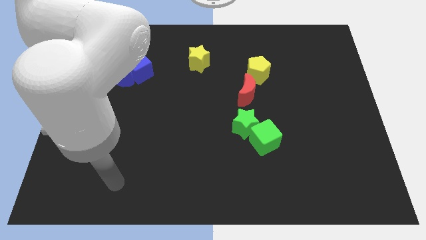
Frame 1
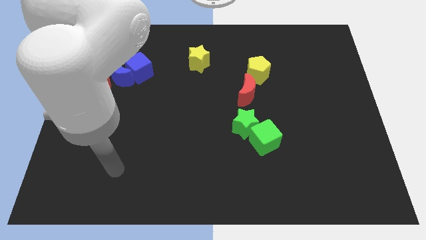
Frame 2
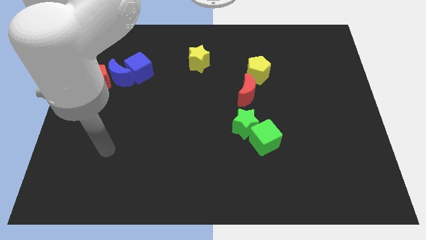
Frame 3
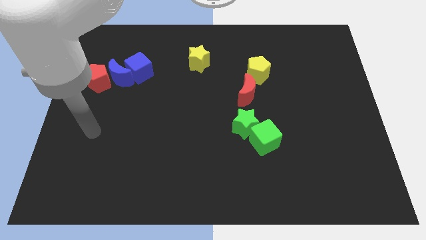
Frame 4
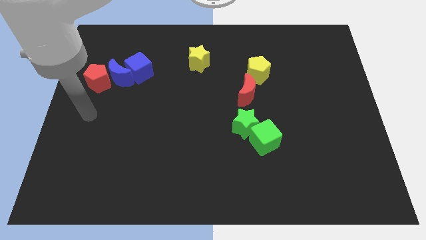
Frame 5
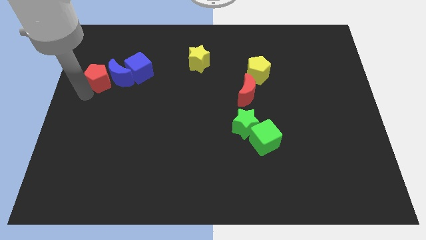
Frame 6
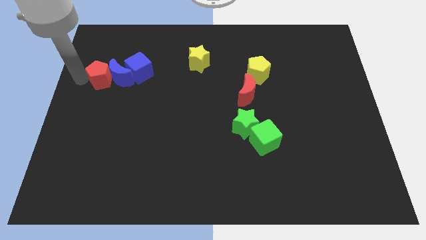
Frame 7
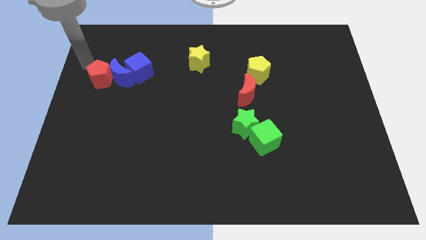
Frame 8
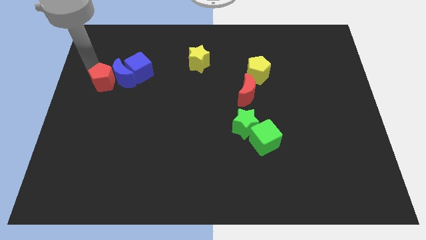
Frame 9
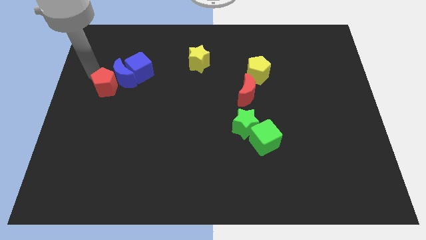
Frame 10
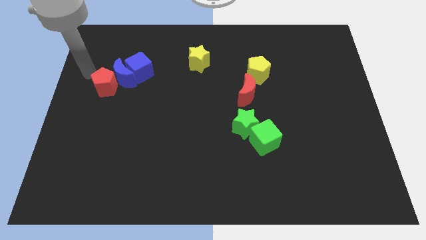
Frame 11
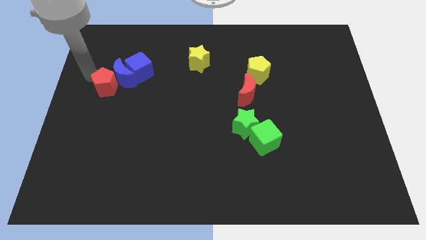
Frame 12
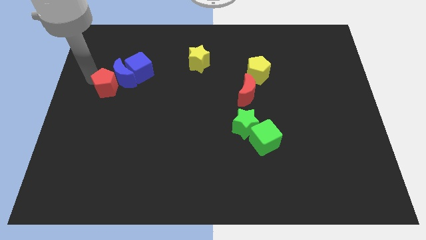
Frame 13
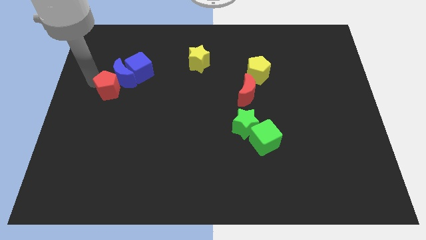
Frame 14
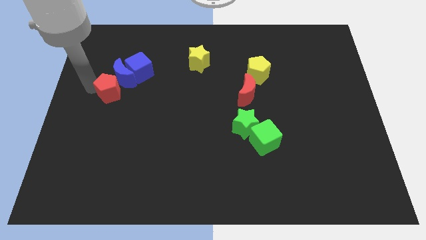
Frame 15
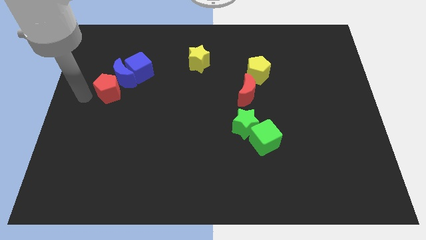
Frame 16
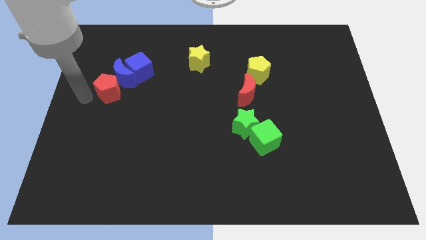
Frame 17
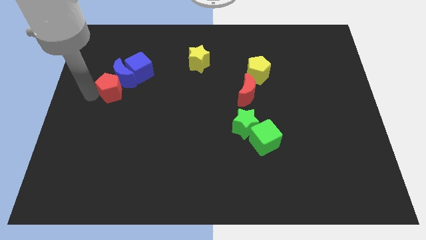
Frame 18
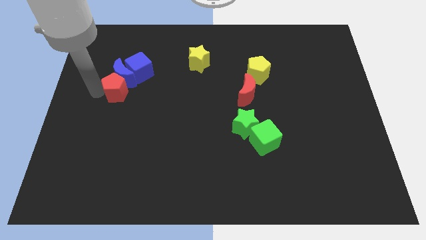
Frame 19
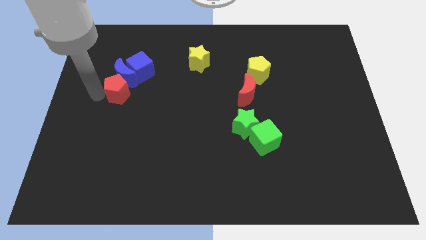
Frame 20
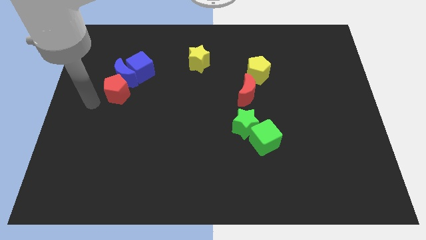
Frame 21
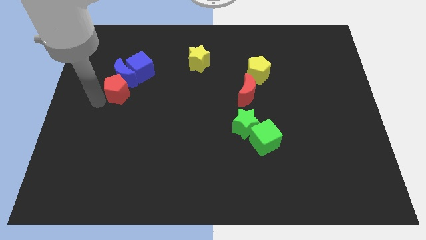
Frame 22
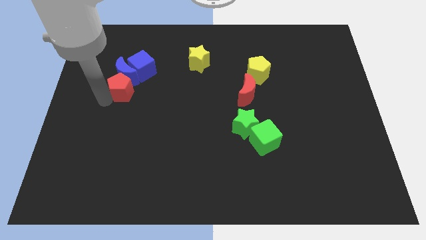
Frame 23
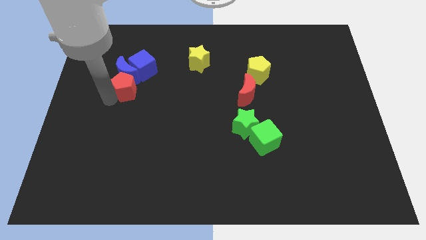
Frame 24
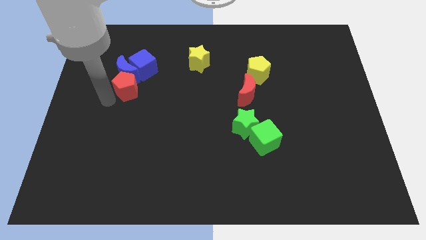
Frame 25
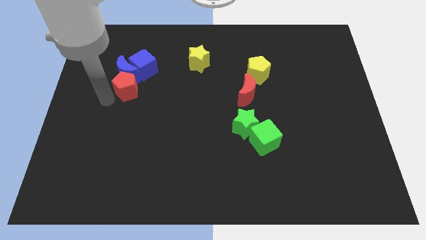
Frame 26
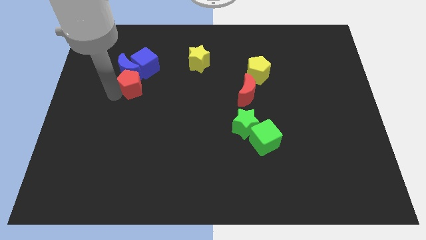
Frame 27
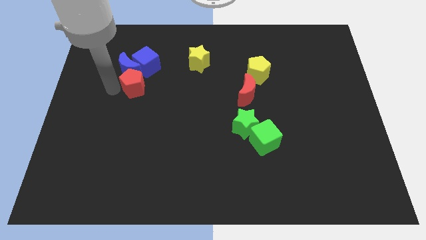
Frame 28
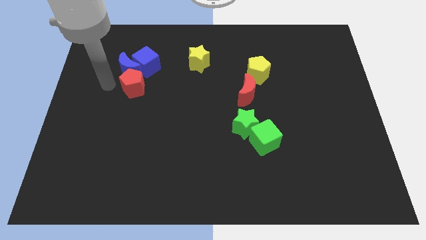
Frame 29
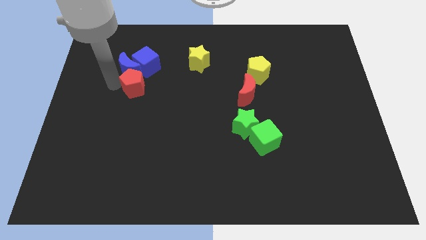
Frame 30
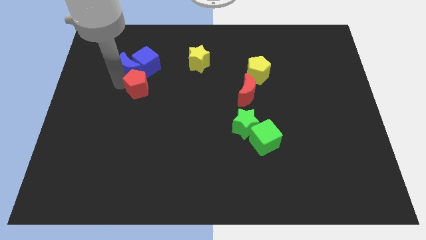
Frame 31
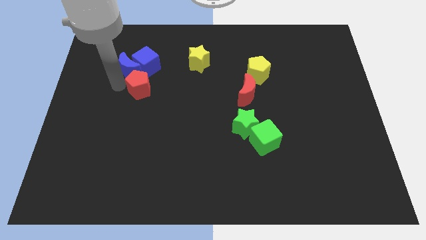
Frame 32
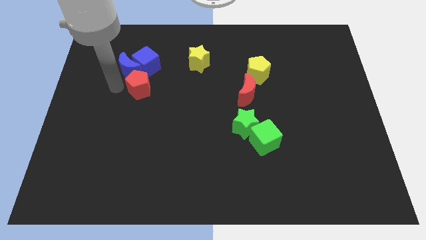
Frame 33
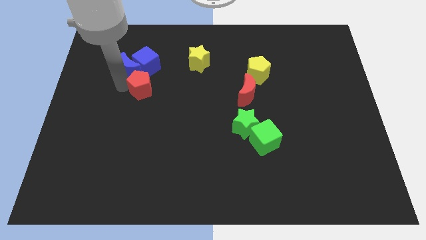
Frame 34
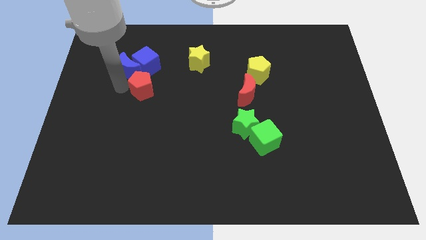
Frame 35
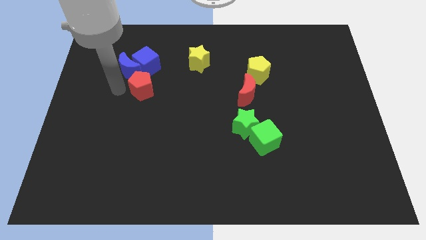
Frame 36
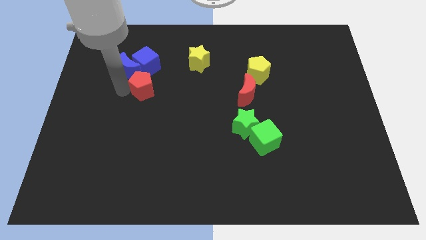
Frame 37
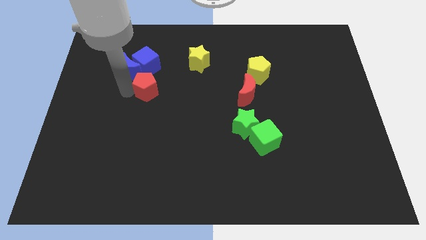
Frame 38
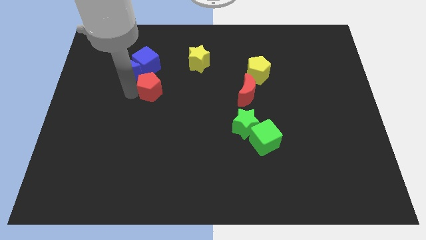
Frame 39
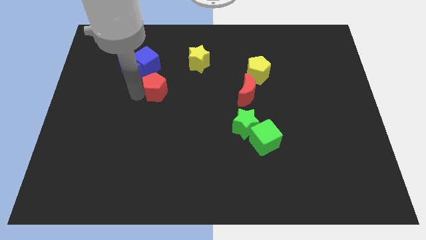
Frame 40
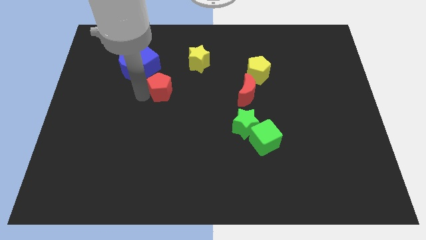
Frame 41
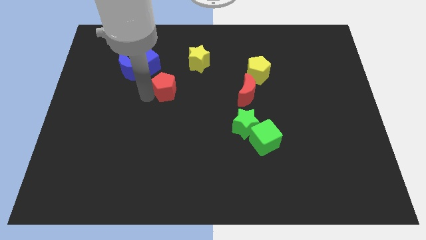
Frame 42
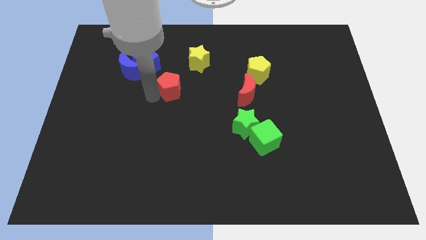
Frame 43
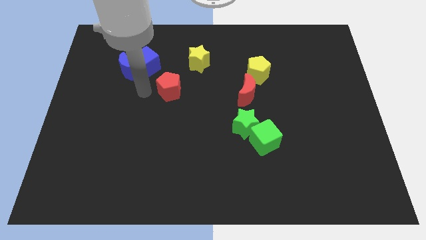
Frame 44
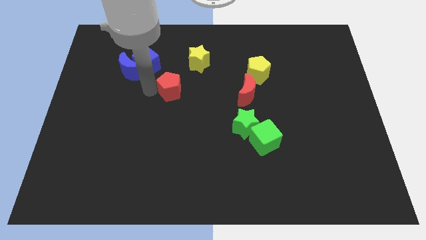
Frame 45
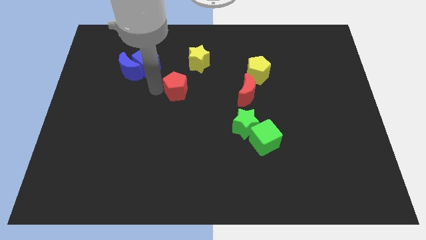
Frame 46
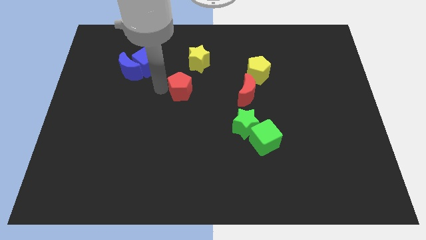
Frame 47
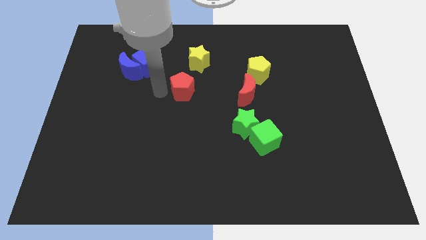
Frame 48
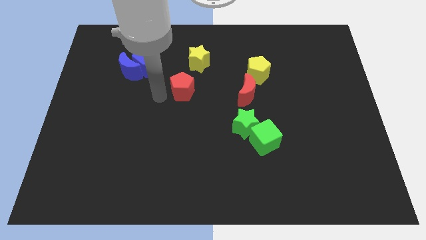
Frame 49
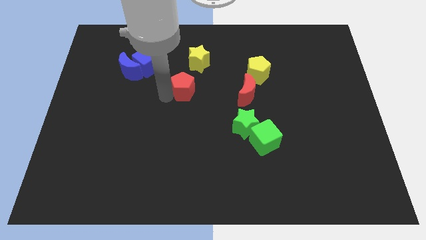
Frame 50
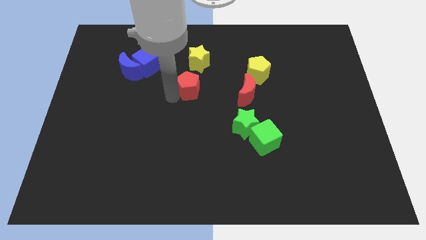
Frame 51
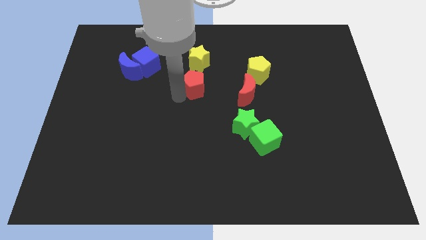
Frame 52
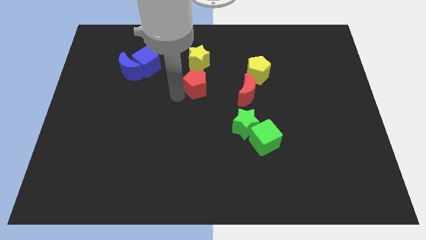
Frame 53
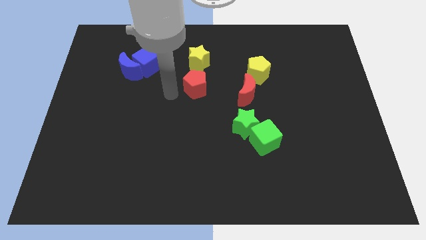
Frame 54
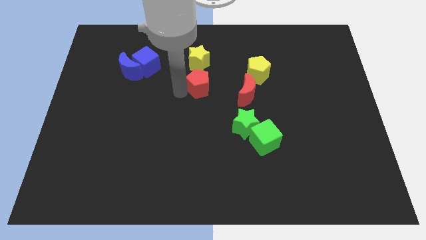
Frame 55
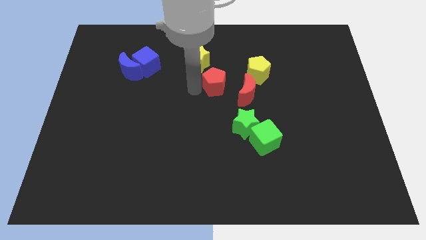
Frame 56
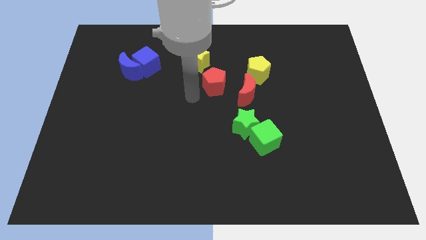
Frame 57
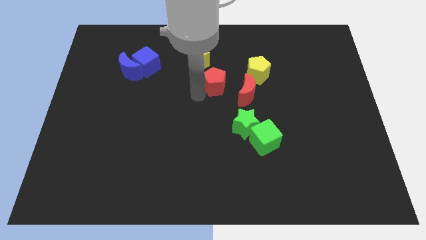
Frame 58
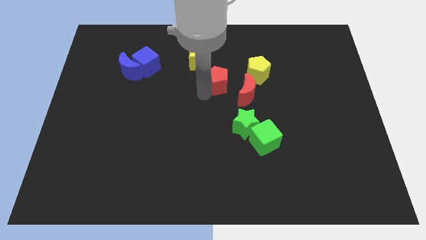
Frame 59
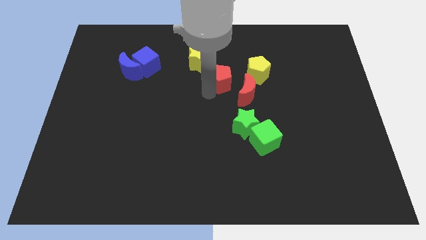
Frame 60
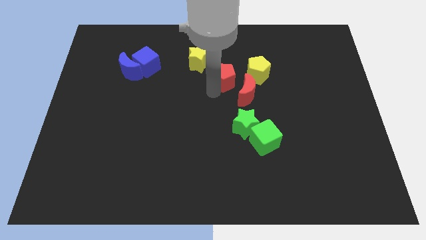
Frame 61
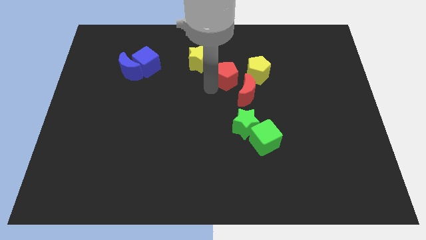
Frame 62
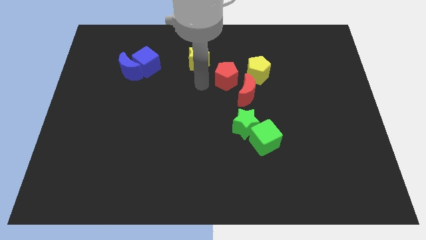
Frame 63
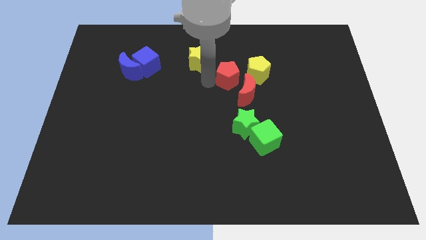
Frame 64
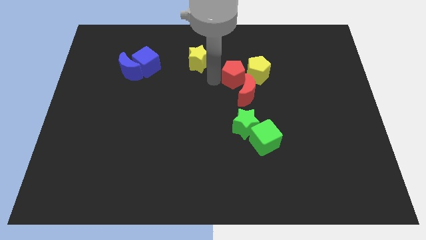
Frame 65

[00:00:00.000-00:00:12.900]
push the red pentagon next to the yellow pentagon

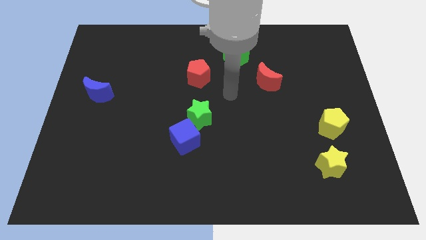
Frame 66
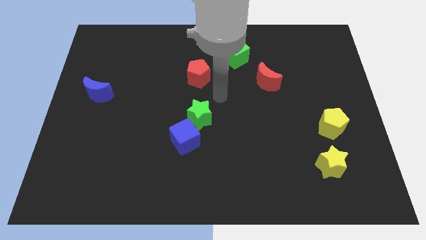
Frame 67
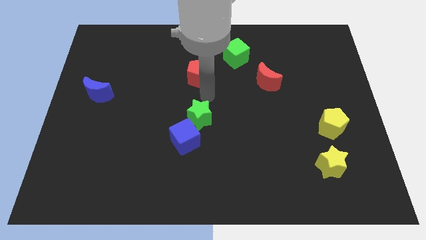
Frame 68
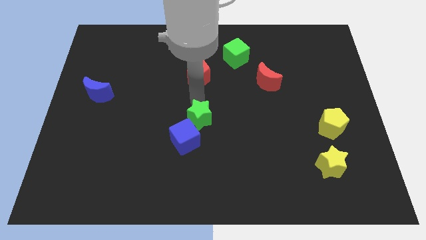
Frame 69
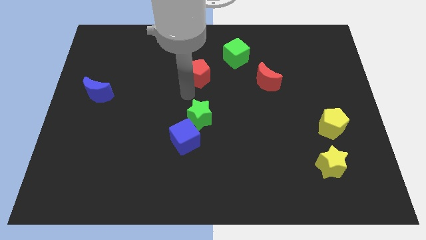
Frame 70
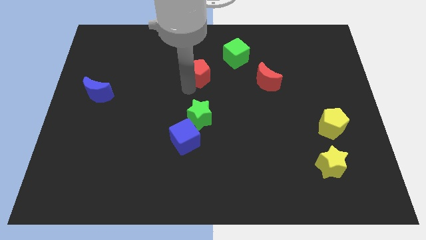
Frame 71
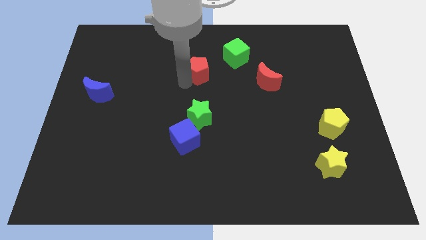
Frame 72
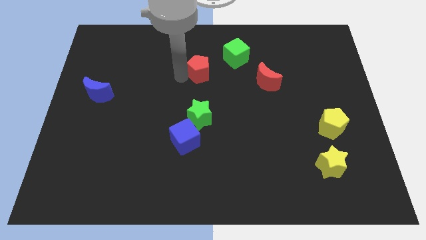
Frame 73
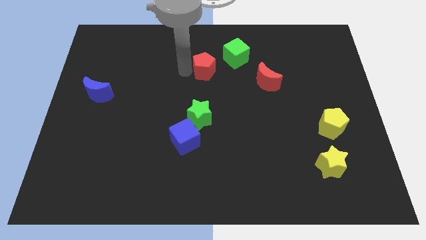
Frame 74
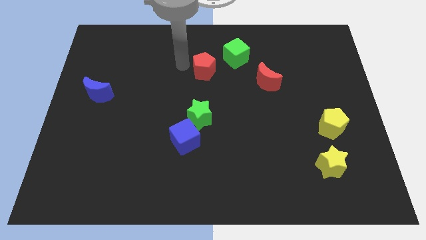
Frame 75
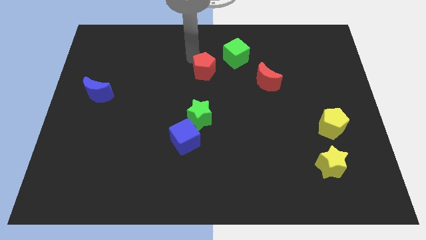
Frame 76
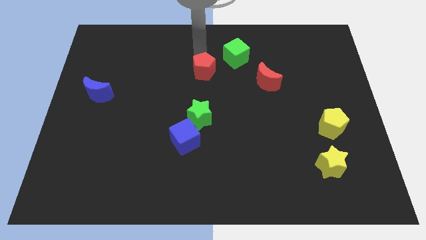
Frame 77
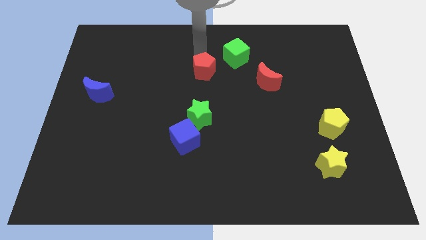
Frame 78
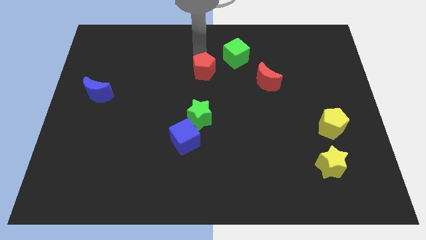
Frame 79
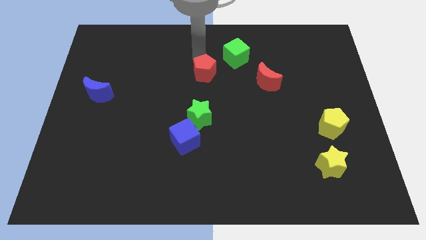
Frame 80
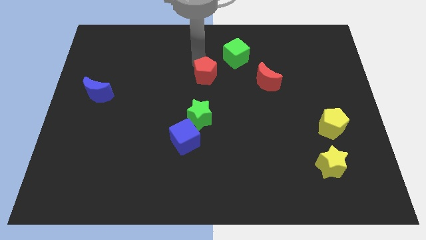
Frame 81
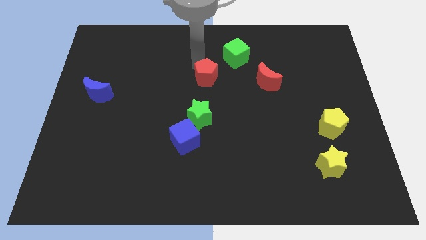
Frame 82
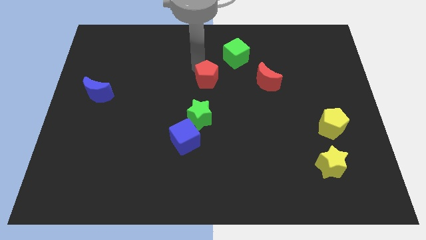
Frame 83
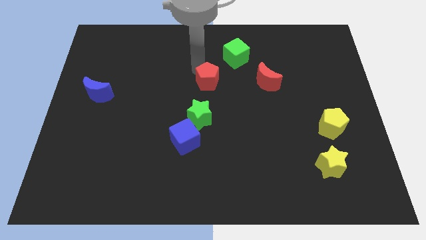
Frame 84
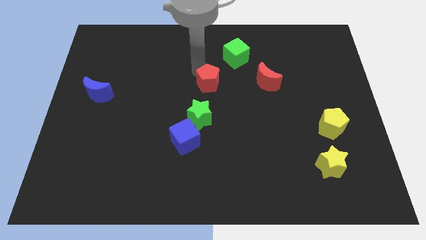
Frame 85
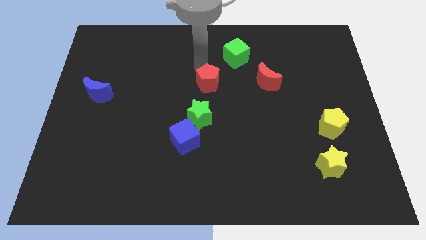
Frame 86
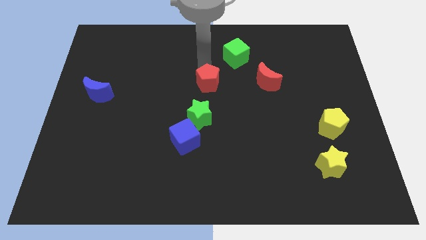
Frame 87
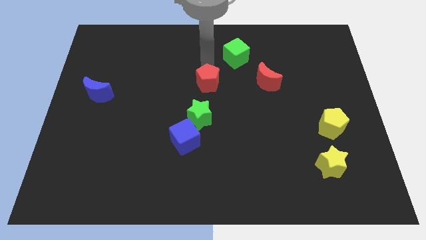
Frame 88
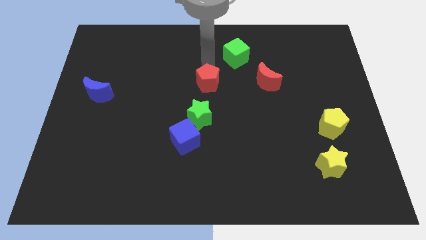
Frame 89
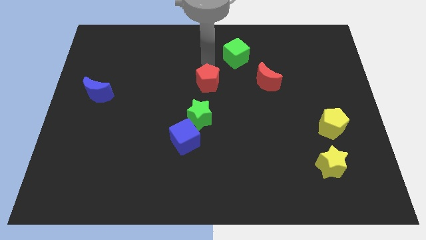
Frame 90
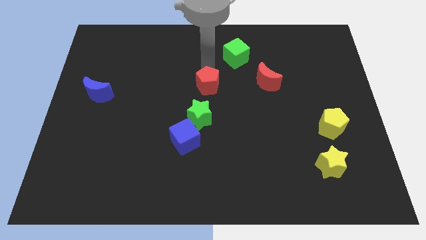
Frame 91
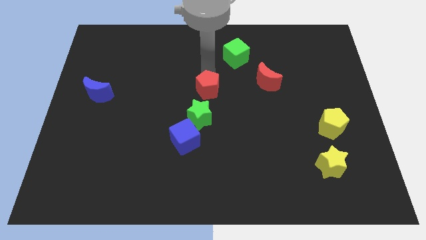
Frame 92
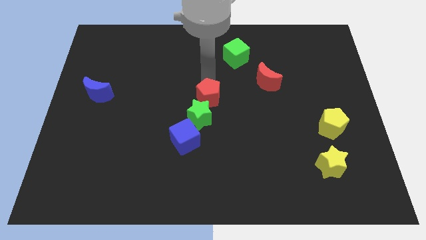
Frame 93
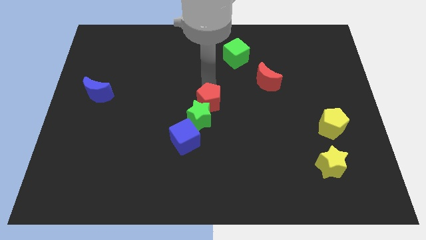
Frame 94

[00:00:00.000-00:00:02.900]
push the red pentagon close to the green star
